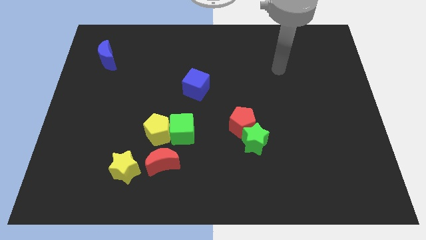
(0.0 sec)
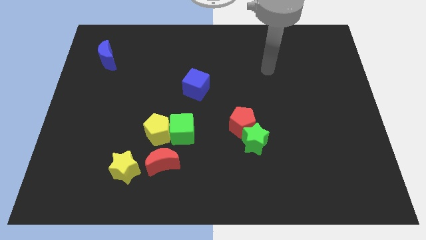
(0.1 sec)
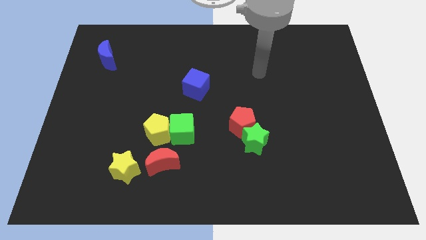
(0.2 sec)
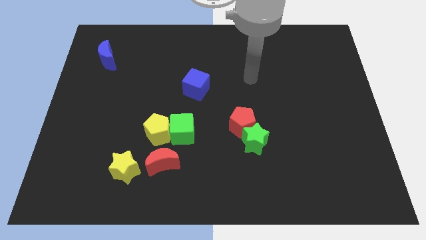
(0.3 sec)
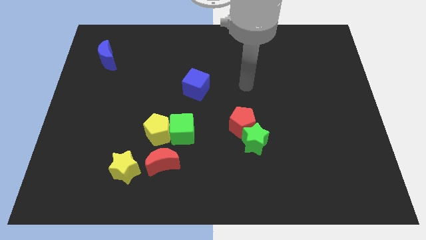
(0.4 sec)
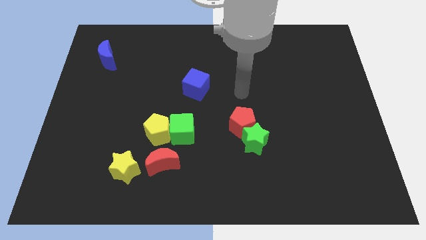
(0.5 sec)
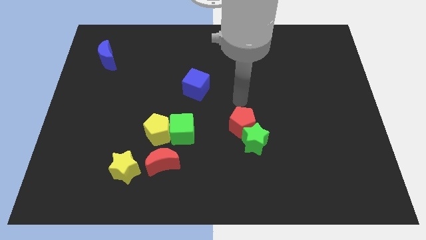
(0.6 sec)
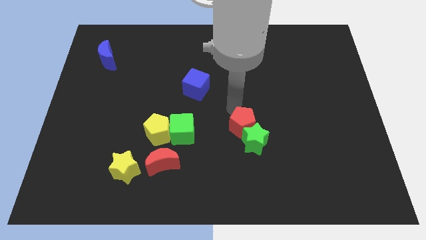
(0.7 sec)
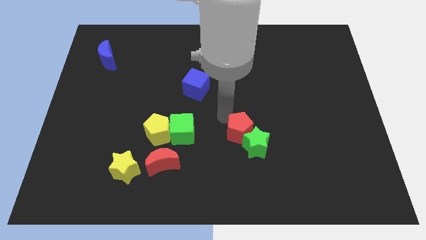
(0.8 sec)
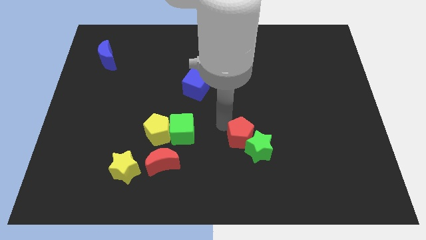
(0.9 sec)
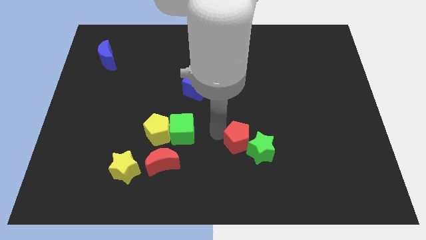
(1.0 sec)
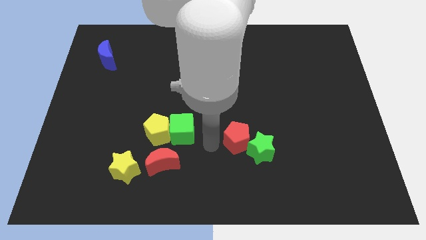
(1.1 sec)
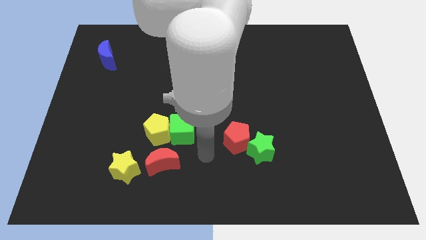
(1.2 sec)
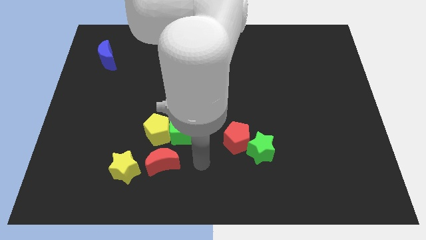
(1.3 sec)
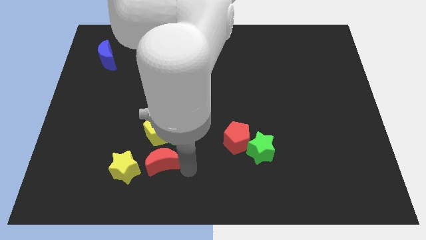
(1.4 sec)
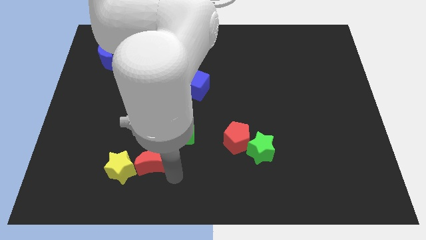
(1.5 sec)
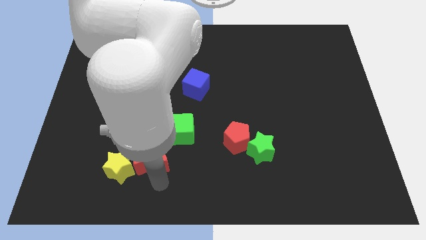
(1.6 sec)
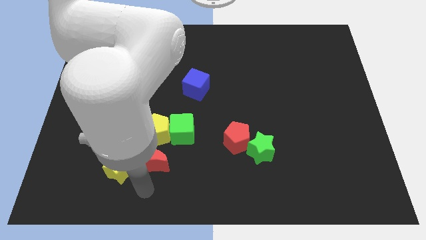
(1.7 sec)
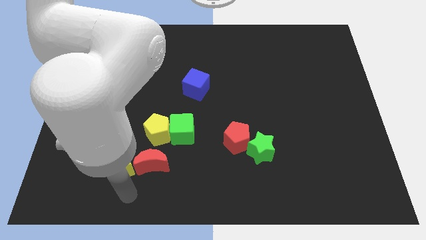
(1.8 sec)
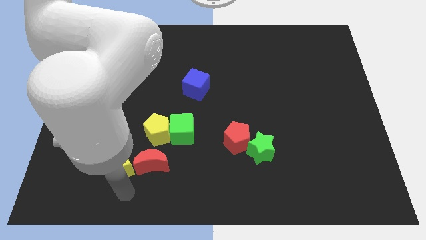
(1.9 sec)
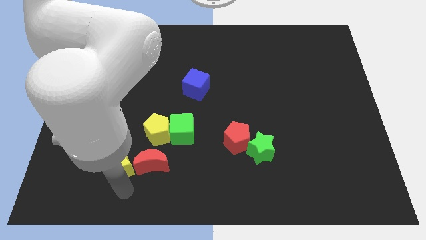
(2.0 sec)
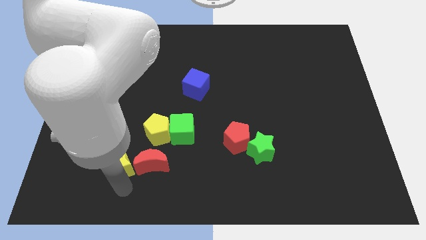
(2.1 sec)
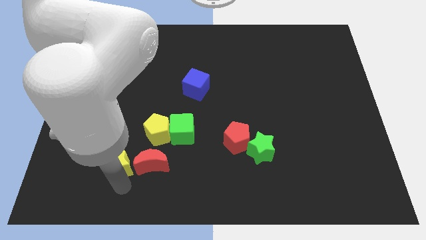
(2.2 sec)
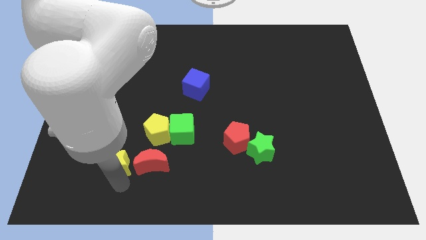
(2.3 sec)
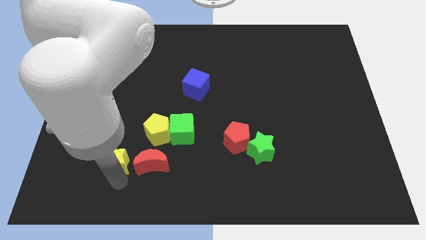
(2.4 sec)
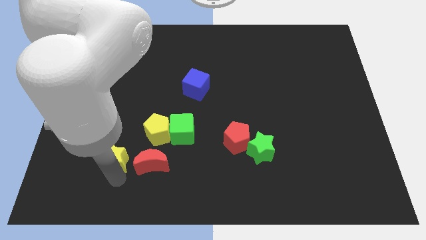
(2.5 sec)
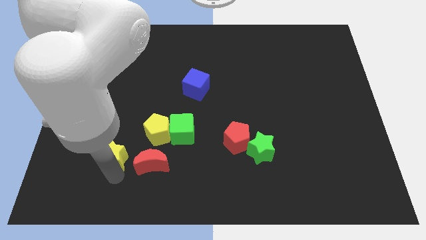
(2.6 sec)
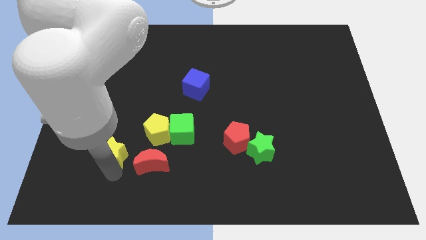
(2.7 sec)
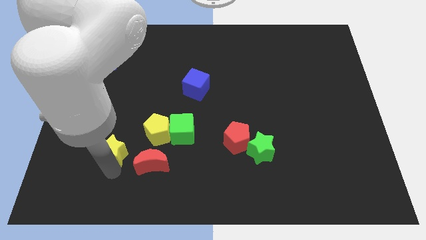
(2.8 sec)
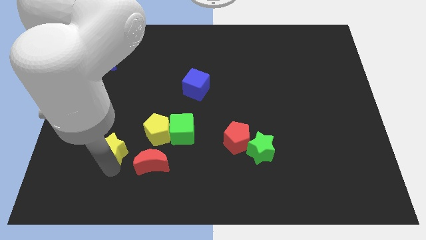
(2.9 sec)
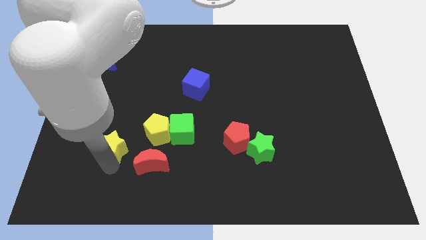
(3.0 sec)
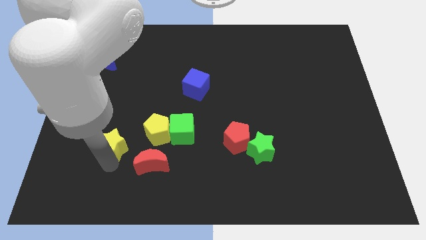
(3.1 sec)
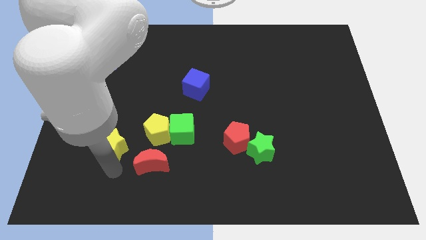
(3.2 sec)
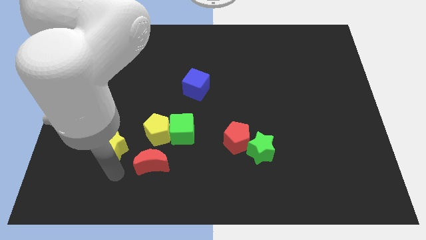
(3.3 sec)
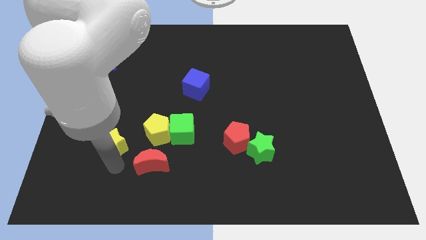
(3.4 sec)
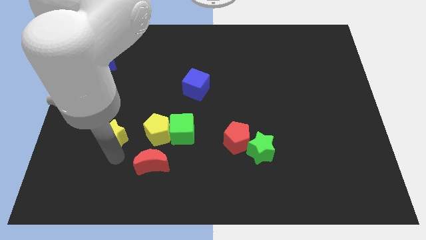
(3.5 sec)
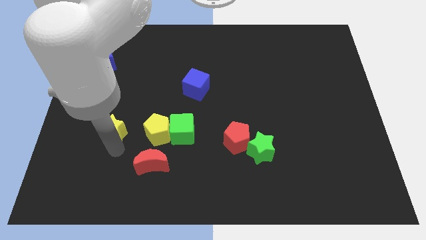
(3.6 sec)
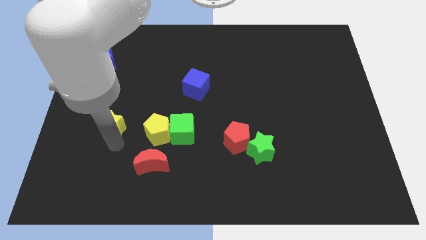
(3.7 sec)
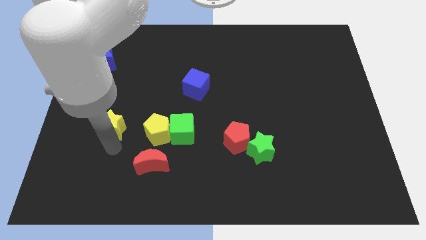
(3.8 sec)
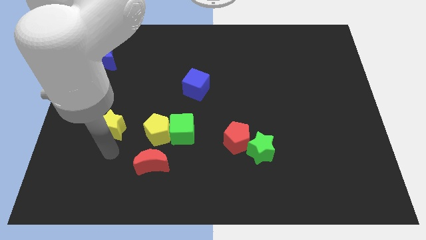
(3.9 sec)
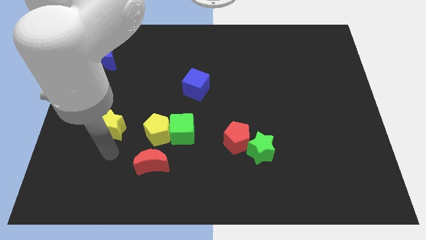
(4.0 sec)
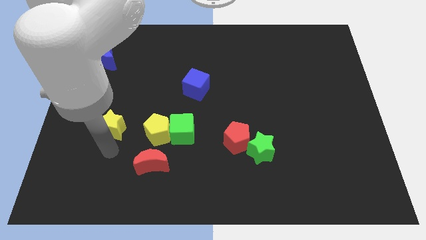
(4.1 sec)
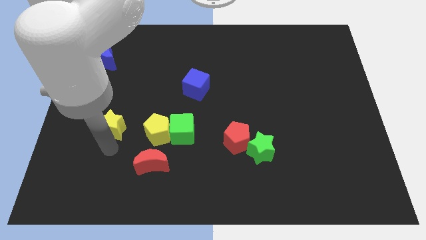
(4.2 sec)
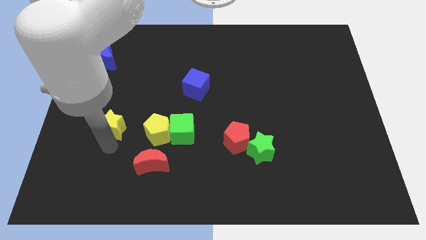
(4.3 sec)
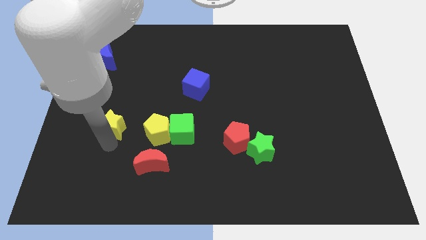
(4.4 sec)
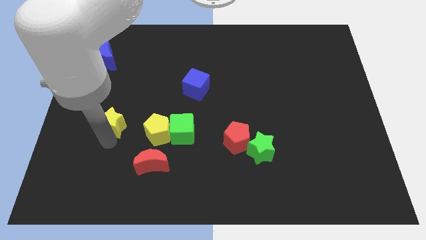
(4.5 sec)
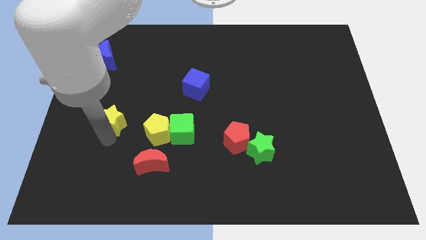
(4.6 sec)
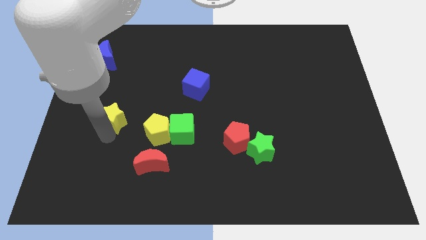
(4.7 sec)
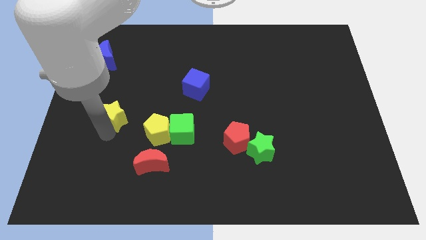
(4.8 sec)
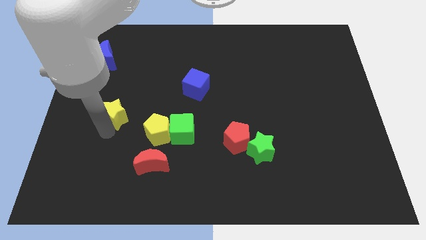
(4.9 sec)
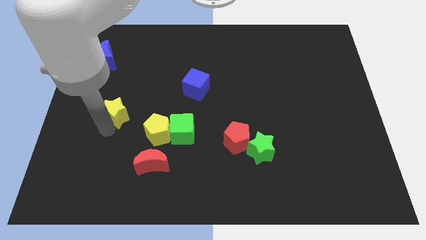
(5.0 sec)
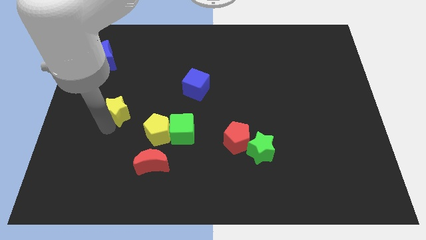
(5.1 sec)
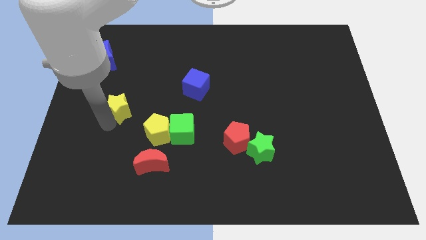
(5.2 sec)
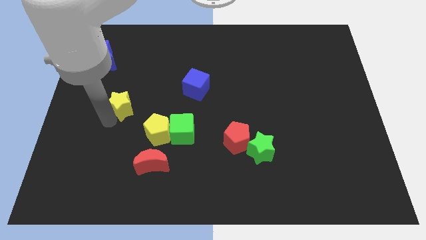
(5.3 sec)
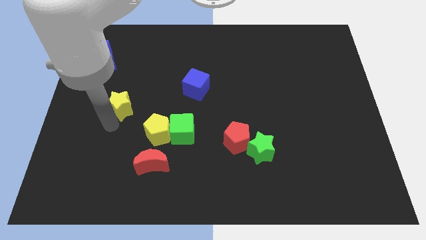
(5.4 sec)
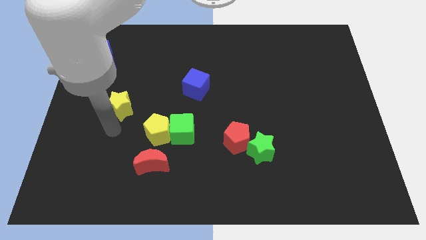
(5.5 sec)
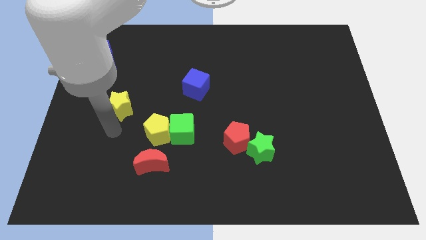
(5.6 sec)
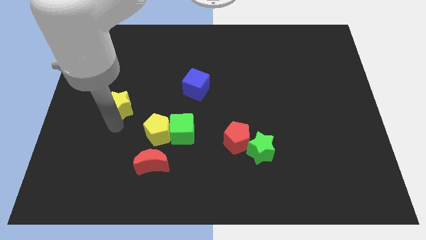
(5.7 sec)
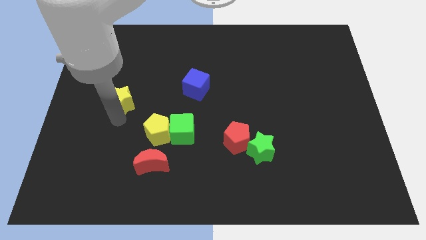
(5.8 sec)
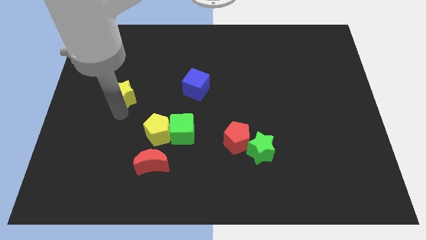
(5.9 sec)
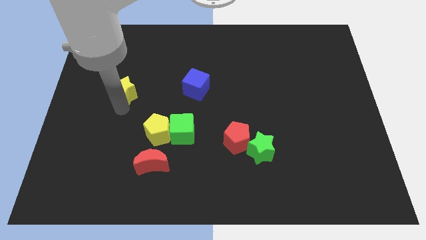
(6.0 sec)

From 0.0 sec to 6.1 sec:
slide the yellow star upwards

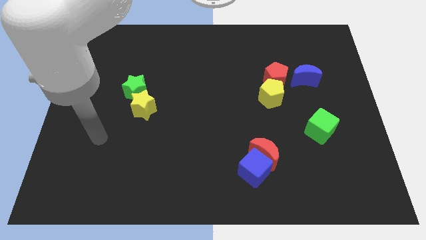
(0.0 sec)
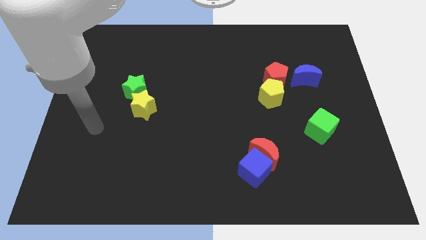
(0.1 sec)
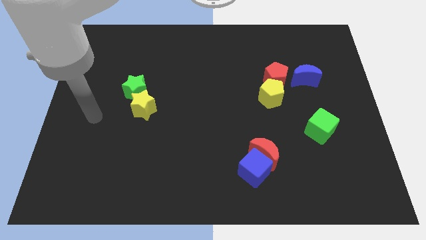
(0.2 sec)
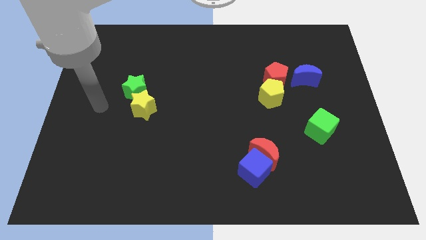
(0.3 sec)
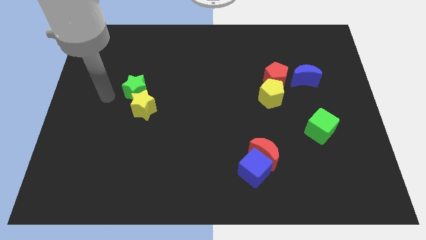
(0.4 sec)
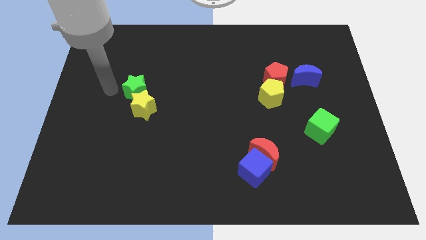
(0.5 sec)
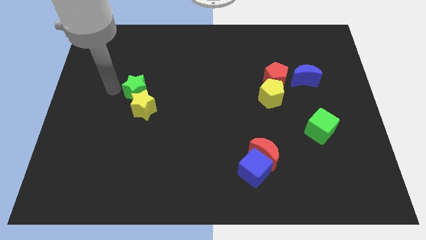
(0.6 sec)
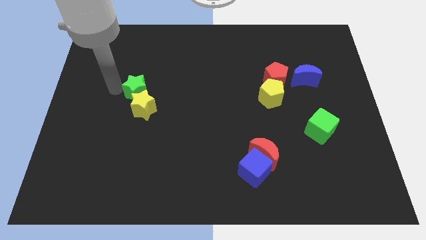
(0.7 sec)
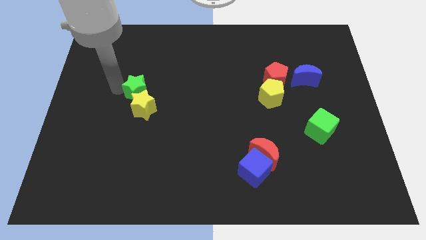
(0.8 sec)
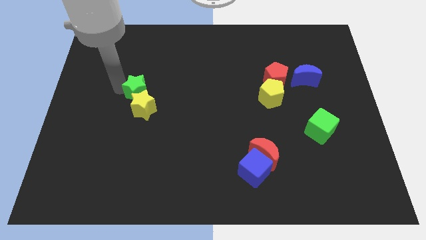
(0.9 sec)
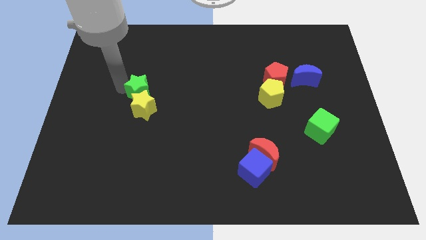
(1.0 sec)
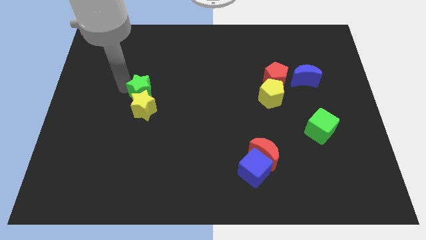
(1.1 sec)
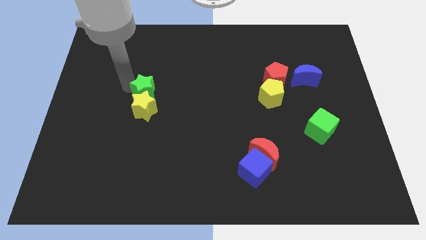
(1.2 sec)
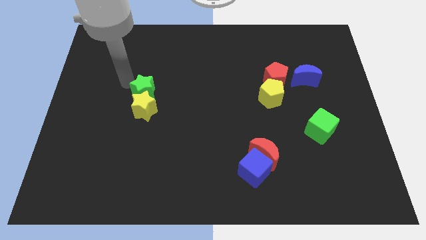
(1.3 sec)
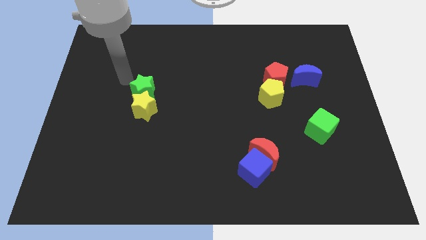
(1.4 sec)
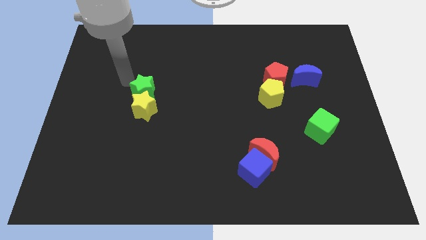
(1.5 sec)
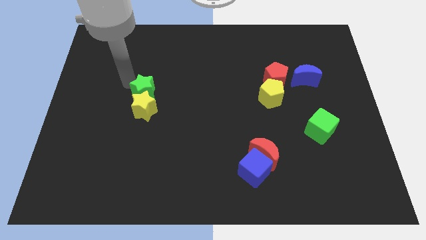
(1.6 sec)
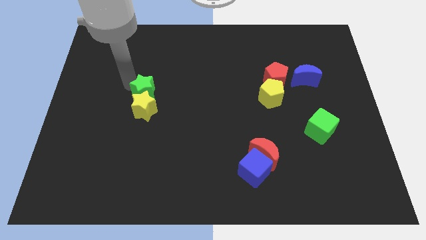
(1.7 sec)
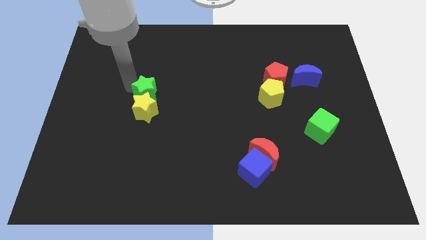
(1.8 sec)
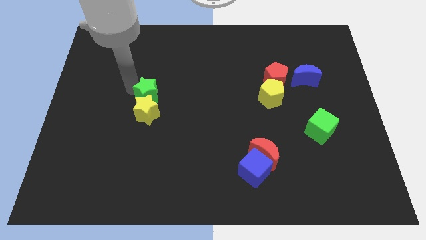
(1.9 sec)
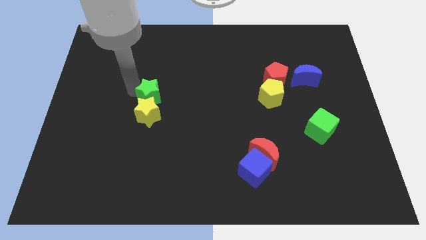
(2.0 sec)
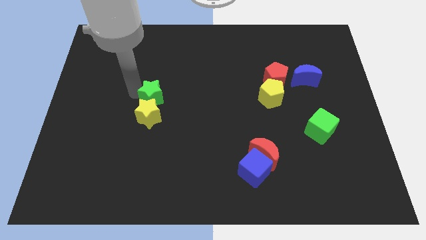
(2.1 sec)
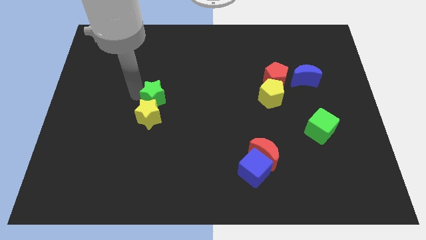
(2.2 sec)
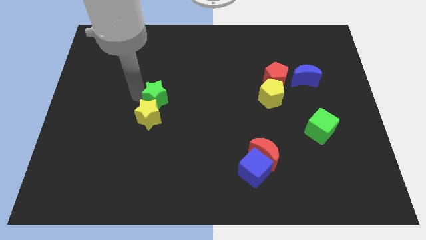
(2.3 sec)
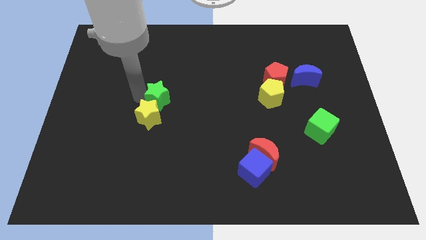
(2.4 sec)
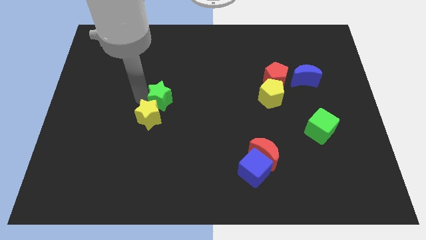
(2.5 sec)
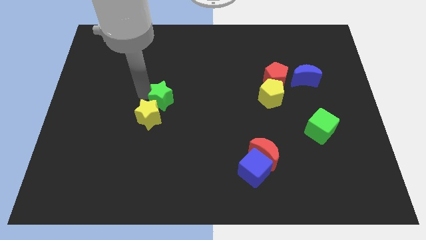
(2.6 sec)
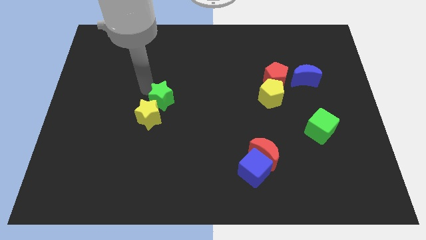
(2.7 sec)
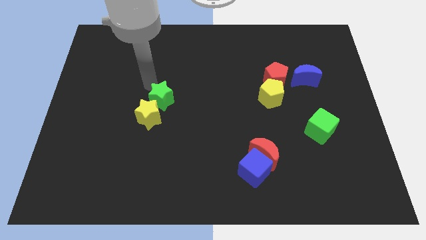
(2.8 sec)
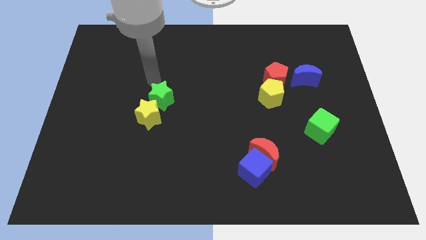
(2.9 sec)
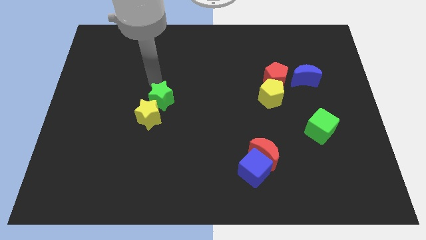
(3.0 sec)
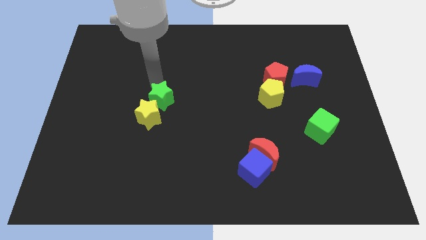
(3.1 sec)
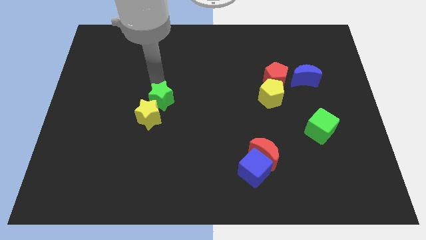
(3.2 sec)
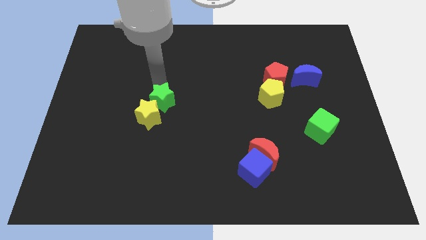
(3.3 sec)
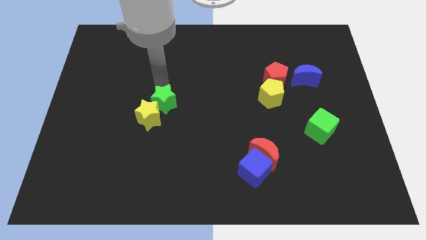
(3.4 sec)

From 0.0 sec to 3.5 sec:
slightly push the green star downwards and to the right diagonally
